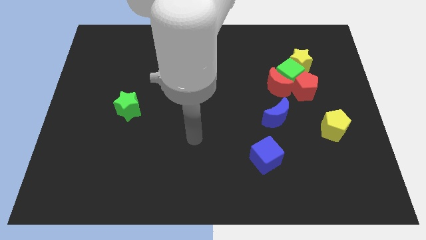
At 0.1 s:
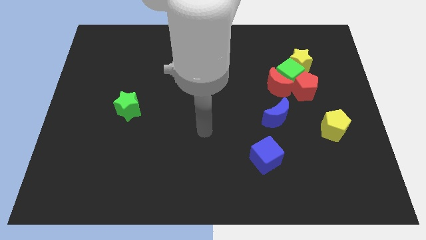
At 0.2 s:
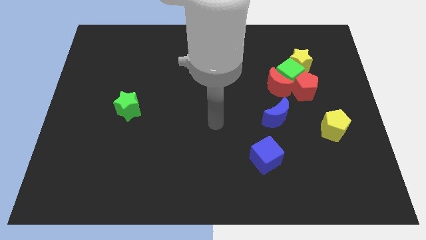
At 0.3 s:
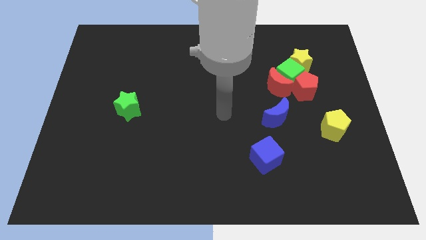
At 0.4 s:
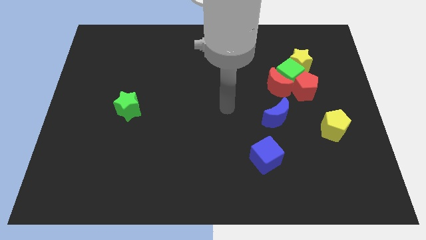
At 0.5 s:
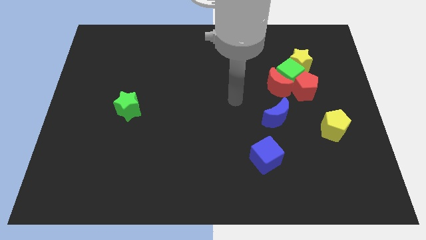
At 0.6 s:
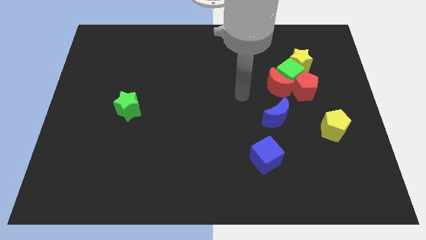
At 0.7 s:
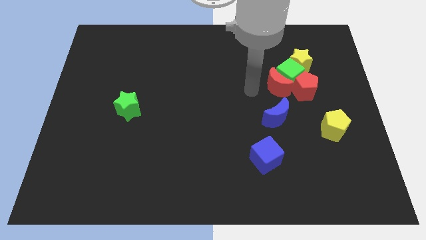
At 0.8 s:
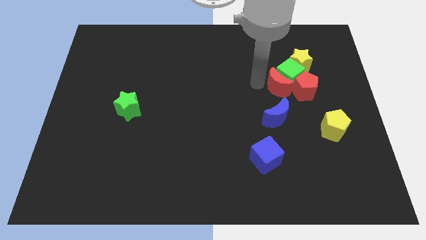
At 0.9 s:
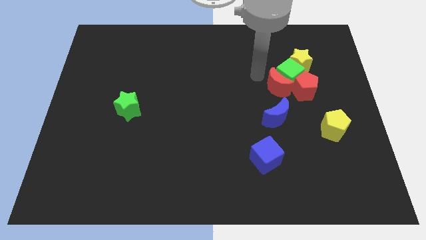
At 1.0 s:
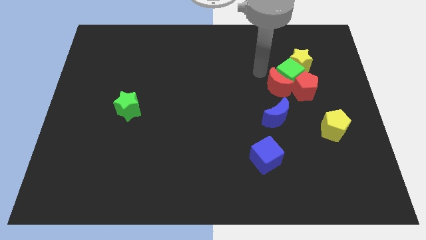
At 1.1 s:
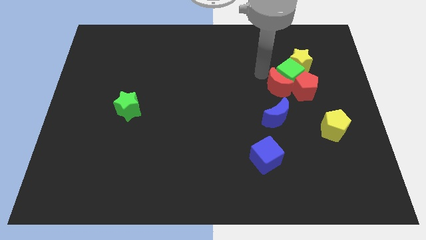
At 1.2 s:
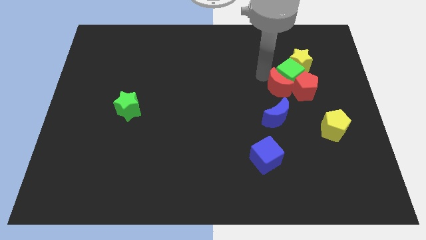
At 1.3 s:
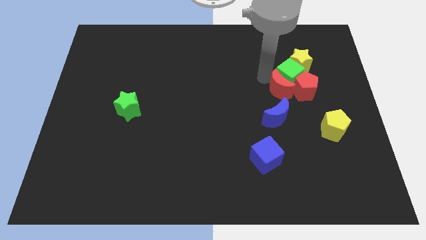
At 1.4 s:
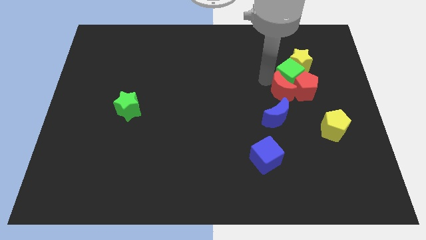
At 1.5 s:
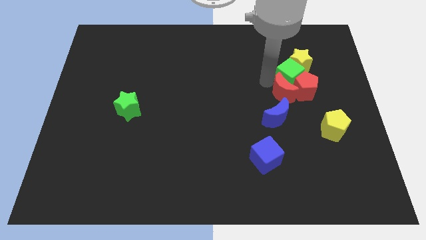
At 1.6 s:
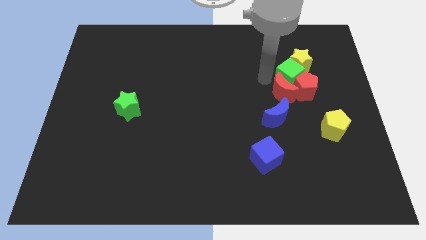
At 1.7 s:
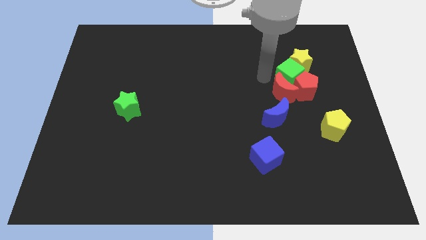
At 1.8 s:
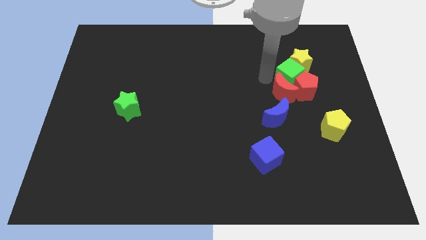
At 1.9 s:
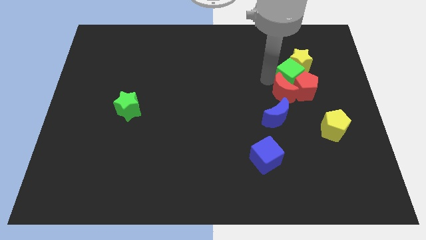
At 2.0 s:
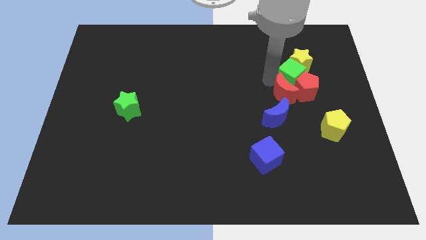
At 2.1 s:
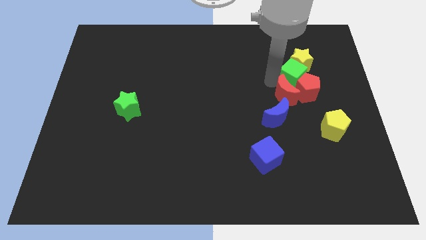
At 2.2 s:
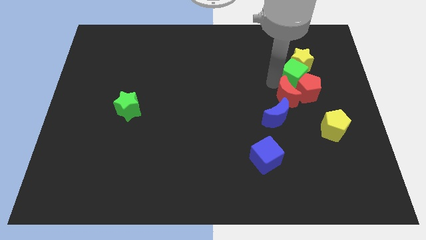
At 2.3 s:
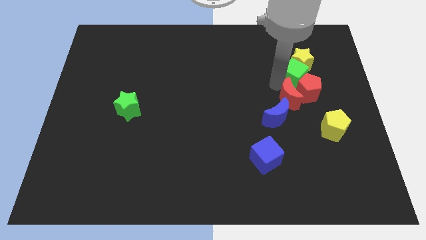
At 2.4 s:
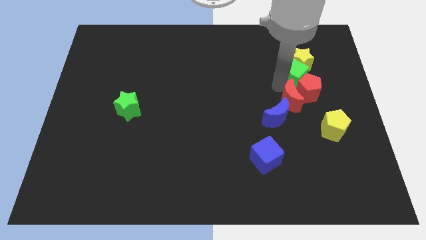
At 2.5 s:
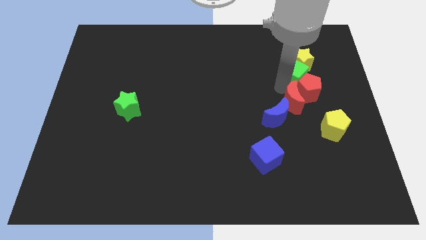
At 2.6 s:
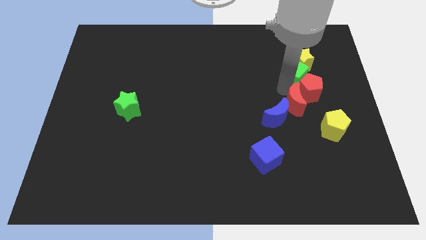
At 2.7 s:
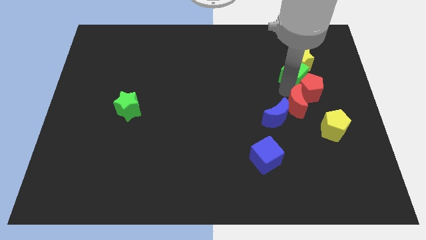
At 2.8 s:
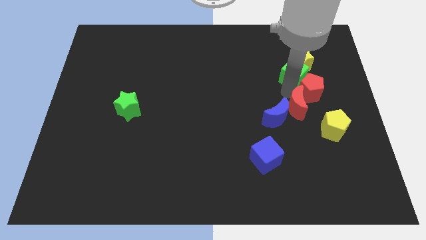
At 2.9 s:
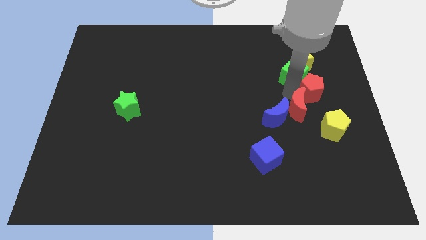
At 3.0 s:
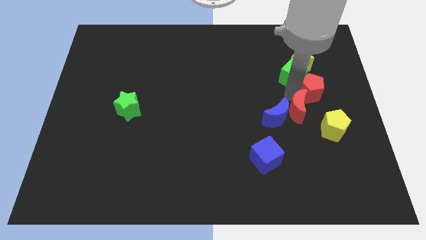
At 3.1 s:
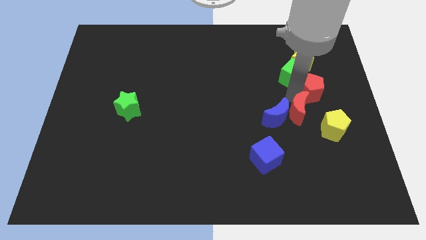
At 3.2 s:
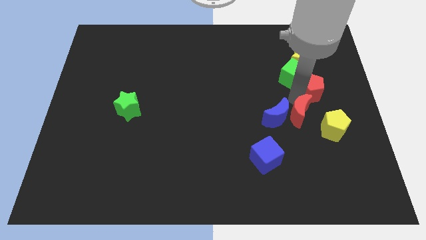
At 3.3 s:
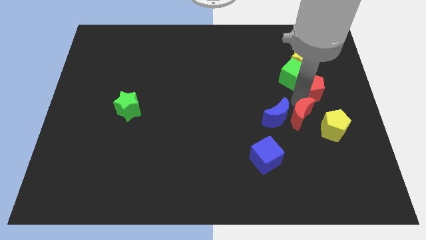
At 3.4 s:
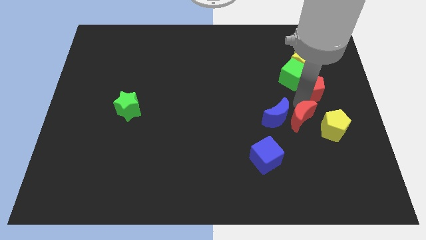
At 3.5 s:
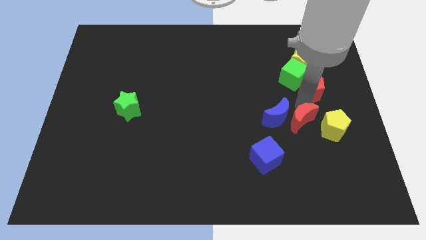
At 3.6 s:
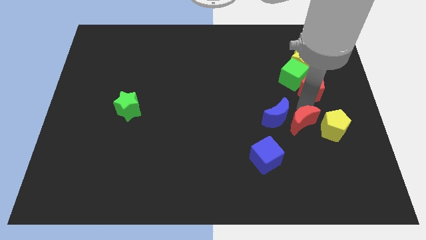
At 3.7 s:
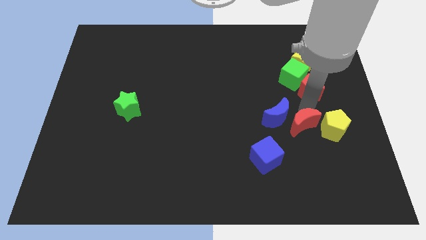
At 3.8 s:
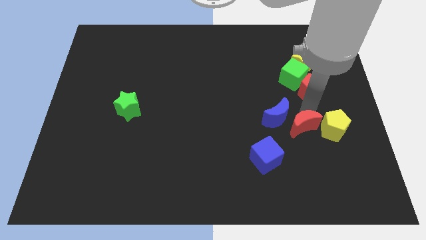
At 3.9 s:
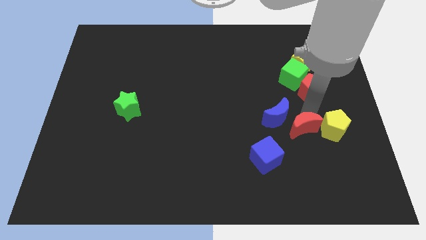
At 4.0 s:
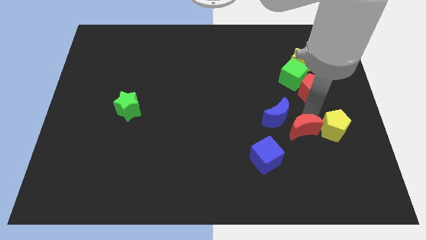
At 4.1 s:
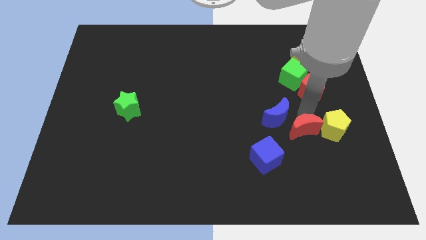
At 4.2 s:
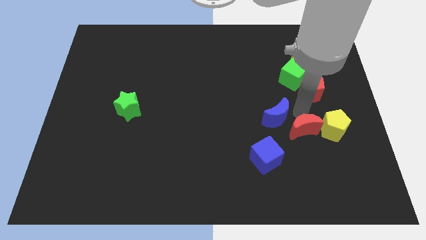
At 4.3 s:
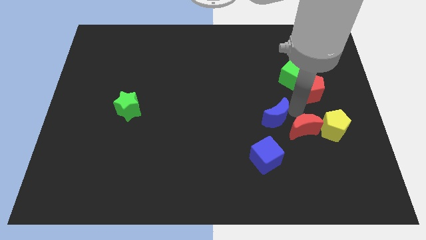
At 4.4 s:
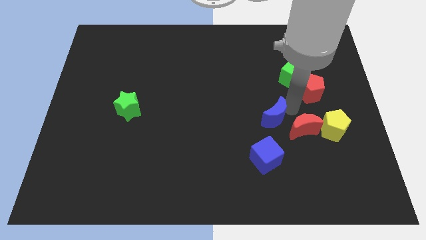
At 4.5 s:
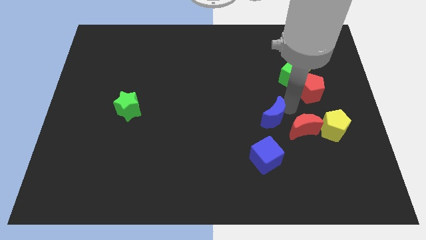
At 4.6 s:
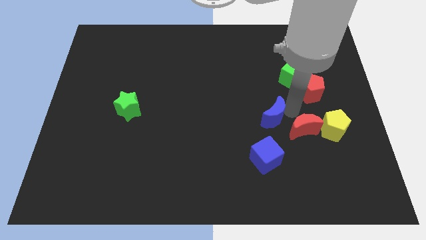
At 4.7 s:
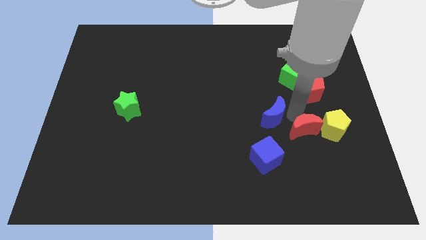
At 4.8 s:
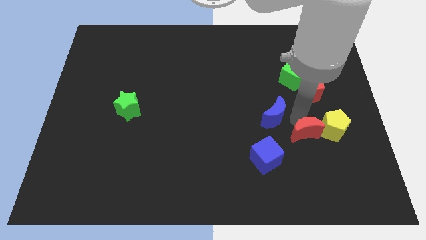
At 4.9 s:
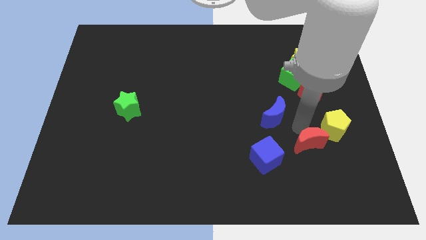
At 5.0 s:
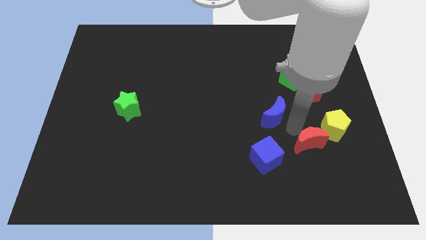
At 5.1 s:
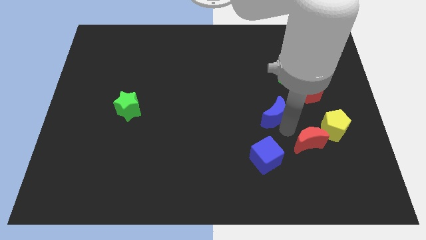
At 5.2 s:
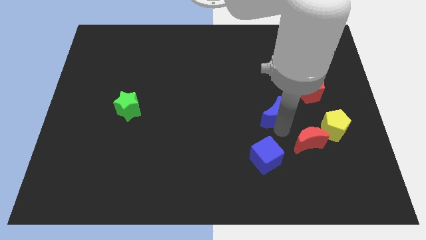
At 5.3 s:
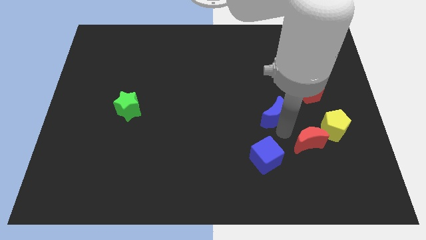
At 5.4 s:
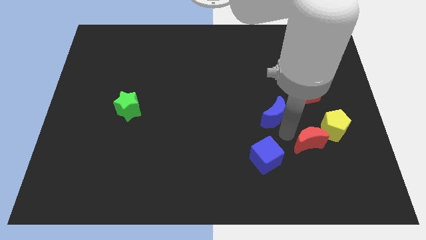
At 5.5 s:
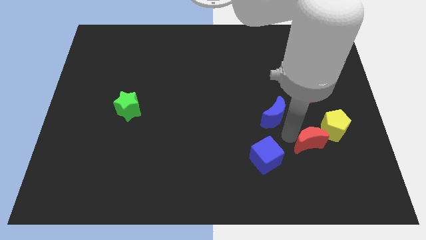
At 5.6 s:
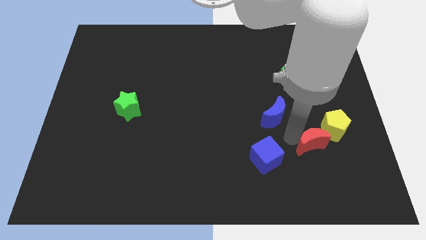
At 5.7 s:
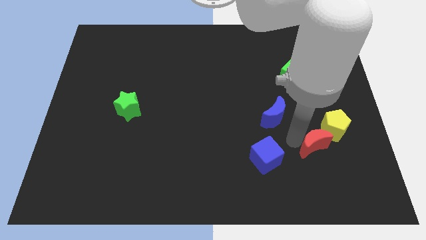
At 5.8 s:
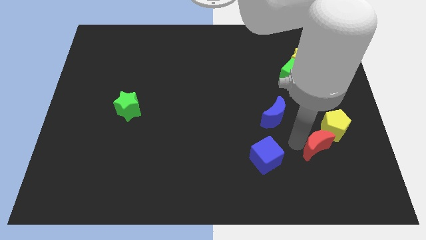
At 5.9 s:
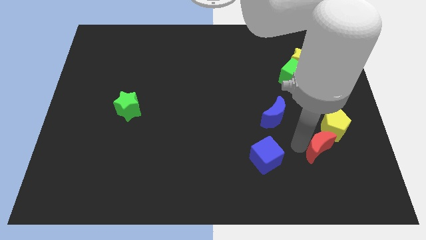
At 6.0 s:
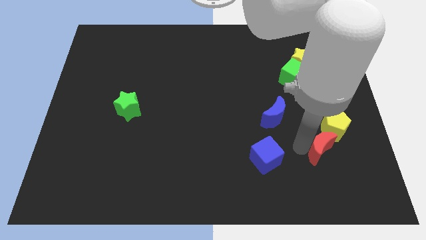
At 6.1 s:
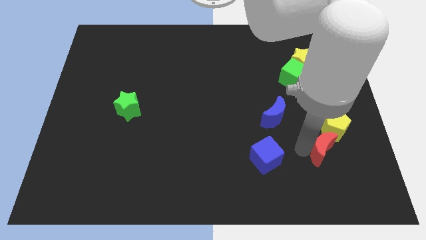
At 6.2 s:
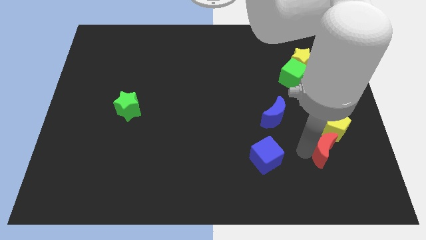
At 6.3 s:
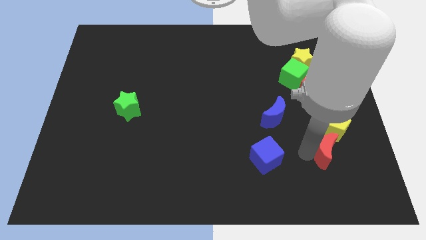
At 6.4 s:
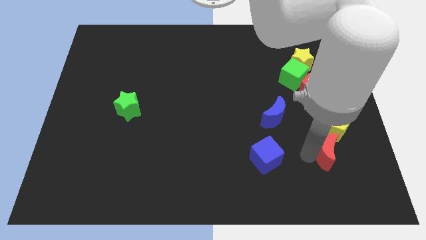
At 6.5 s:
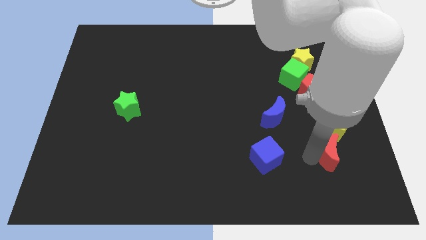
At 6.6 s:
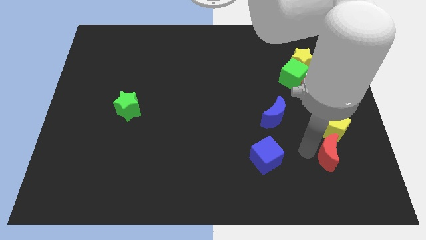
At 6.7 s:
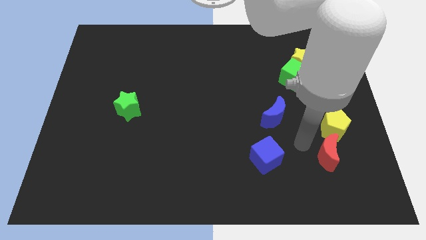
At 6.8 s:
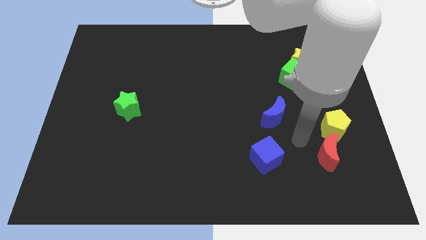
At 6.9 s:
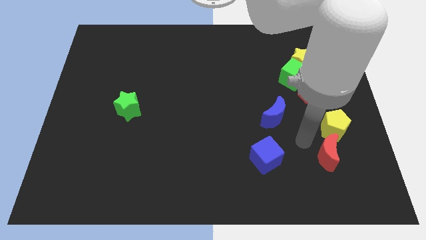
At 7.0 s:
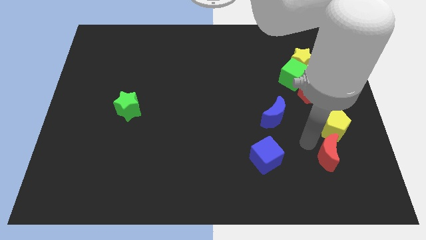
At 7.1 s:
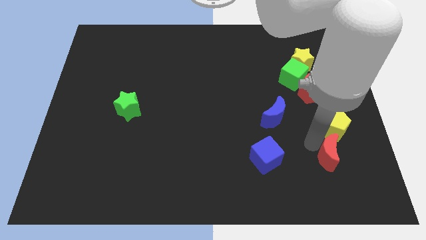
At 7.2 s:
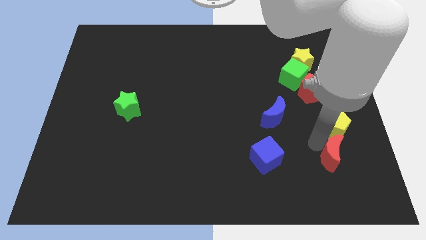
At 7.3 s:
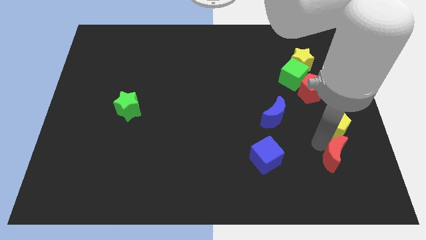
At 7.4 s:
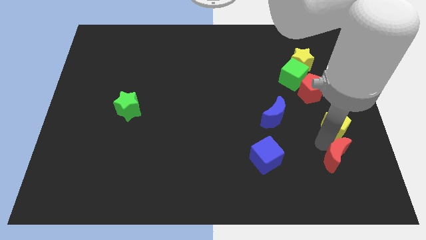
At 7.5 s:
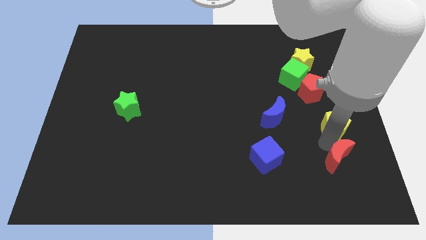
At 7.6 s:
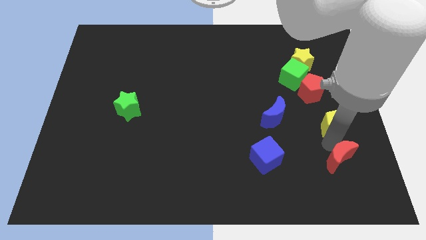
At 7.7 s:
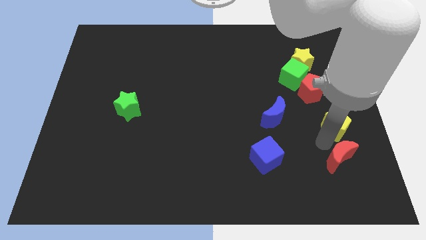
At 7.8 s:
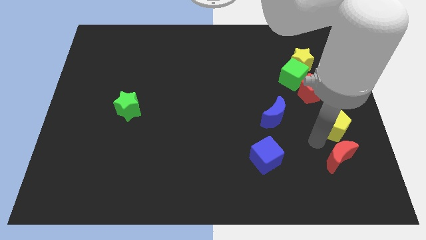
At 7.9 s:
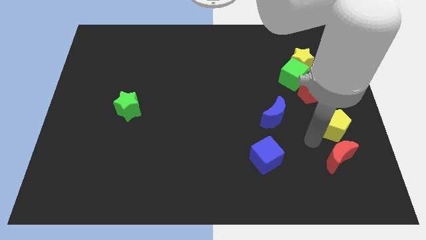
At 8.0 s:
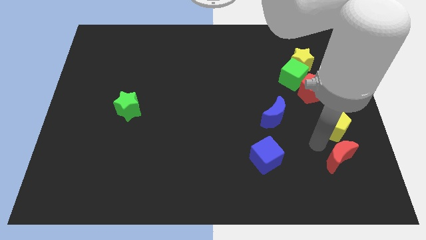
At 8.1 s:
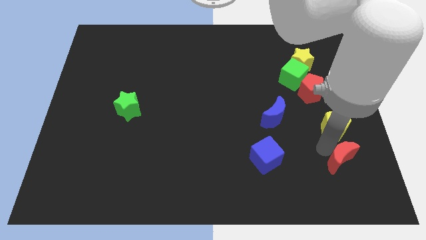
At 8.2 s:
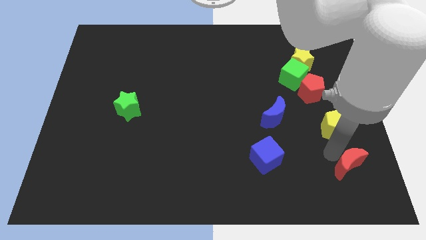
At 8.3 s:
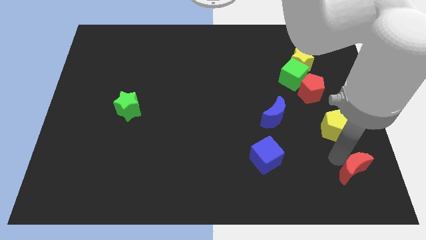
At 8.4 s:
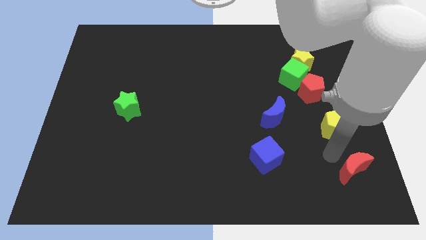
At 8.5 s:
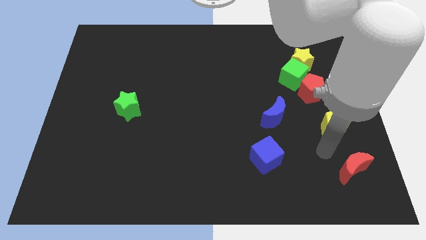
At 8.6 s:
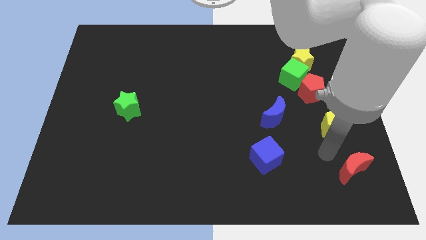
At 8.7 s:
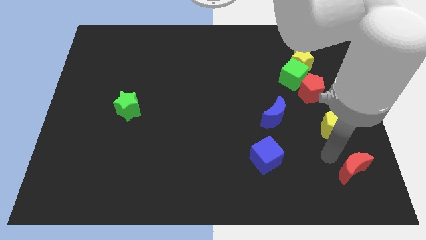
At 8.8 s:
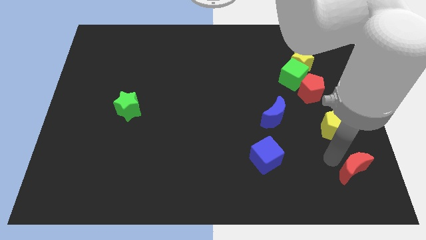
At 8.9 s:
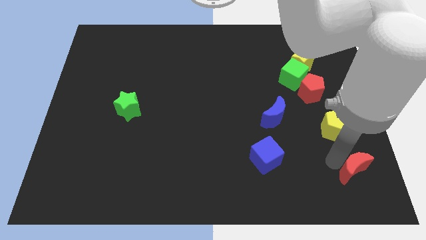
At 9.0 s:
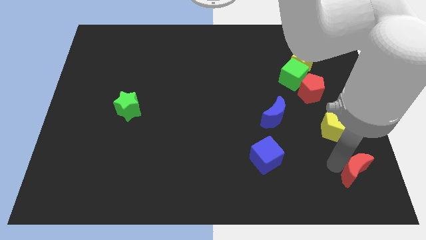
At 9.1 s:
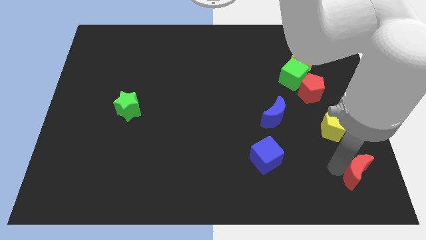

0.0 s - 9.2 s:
push the red moon to the bottom right of the board
